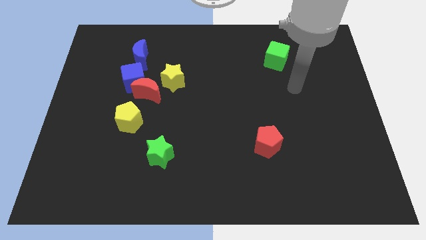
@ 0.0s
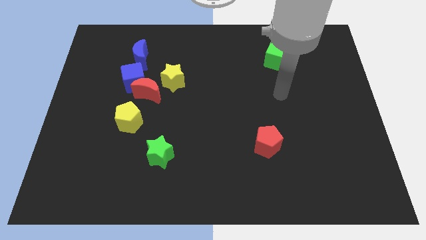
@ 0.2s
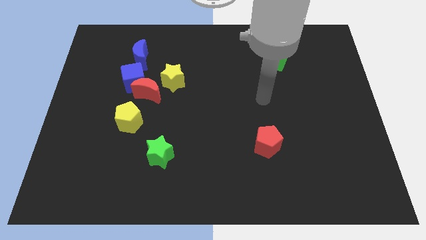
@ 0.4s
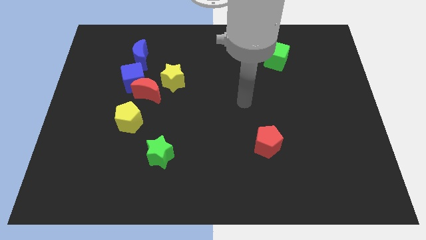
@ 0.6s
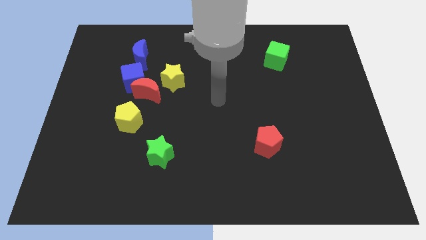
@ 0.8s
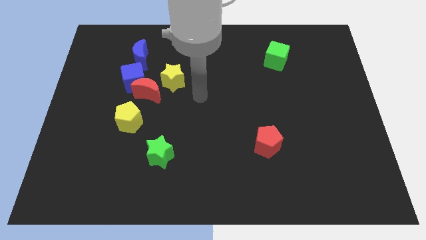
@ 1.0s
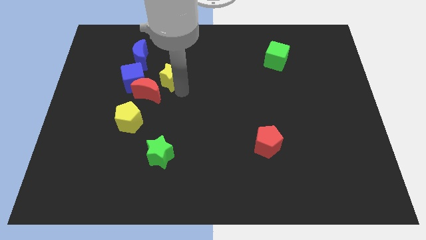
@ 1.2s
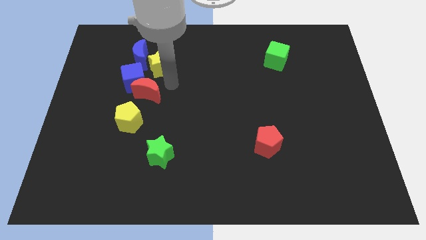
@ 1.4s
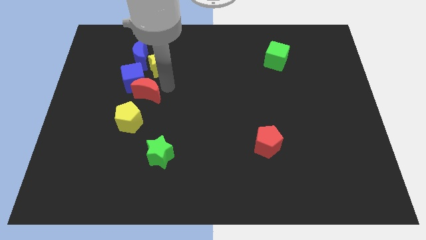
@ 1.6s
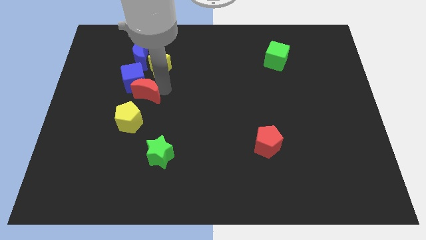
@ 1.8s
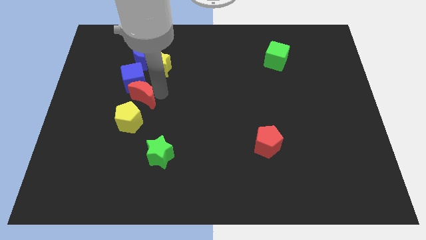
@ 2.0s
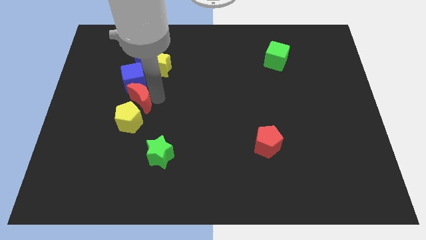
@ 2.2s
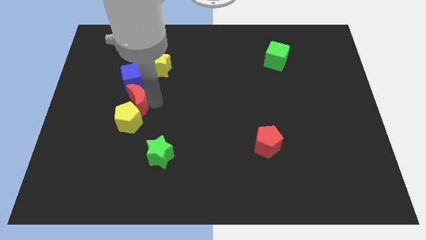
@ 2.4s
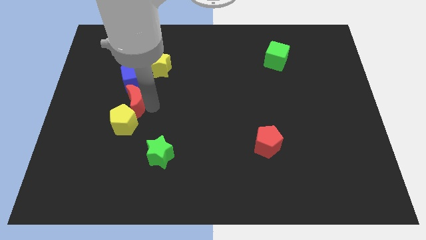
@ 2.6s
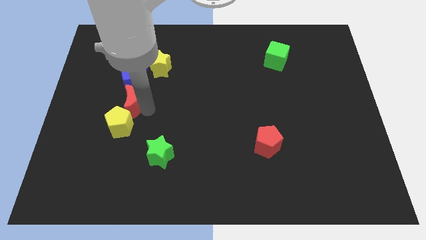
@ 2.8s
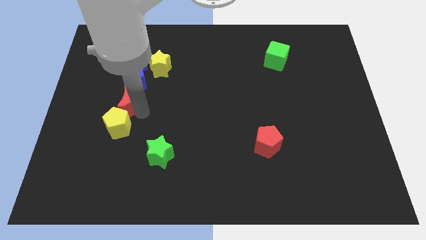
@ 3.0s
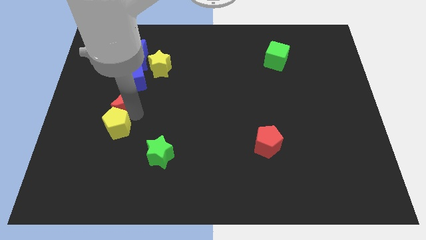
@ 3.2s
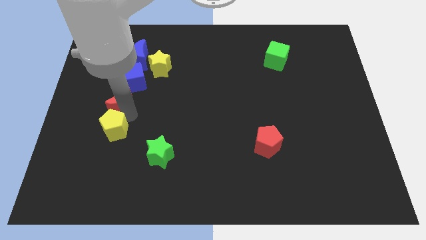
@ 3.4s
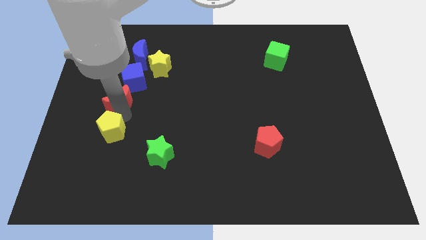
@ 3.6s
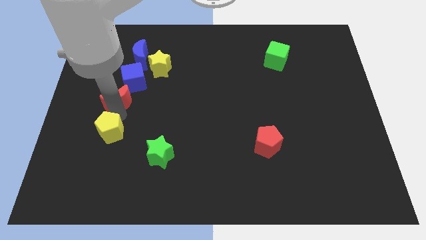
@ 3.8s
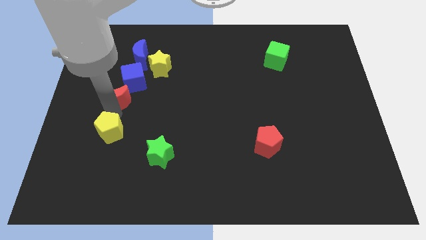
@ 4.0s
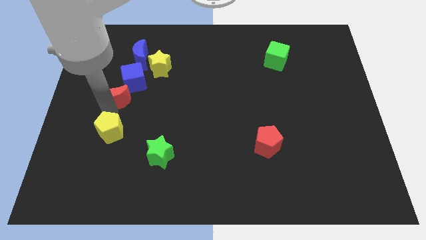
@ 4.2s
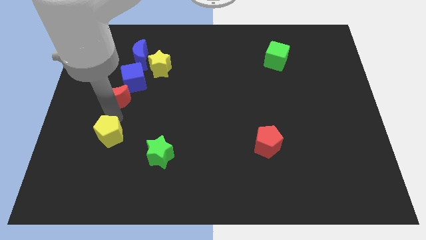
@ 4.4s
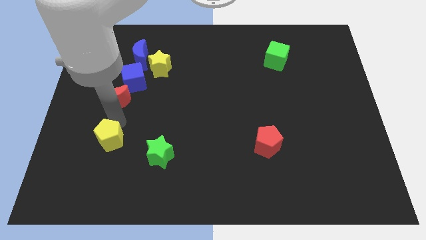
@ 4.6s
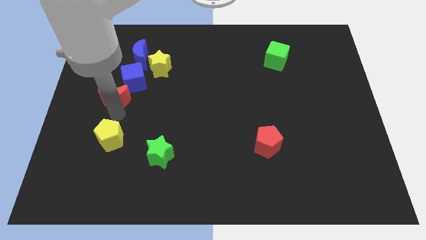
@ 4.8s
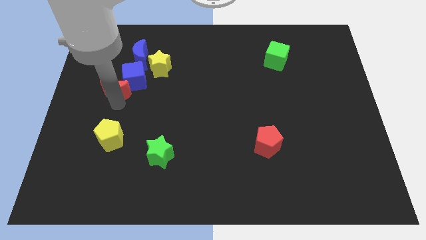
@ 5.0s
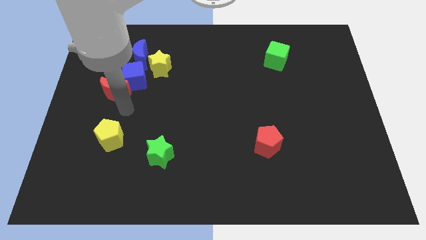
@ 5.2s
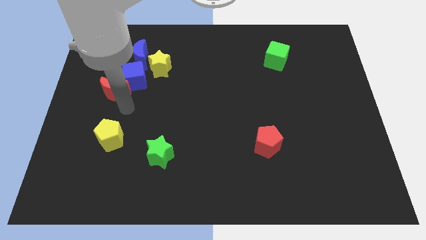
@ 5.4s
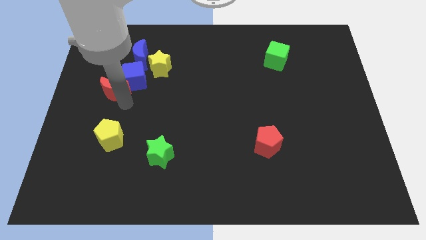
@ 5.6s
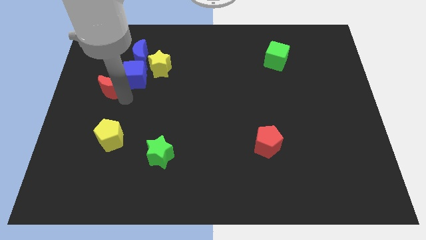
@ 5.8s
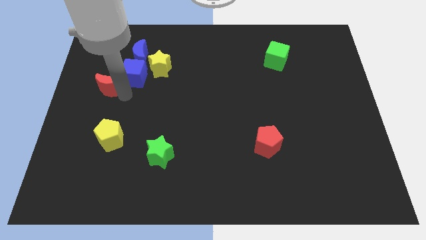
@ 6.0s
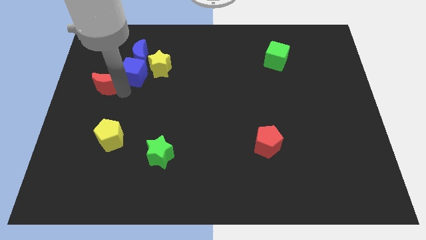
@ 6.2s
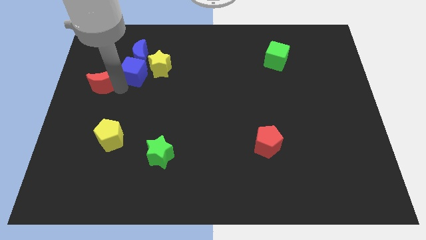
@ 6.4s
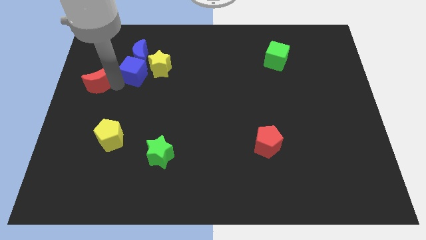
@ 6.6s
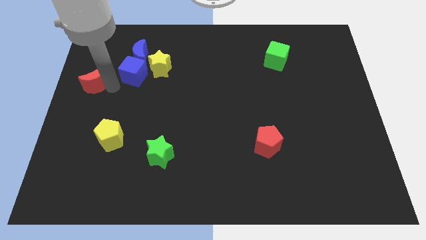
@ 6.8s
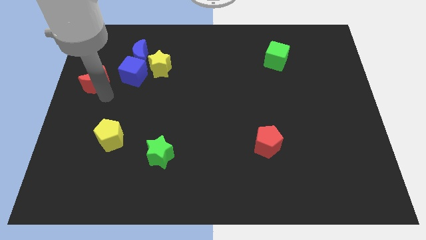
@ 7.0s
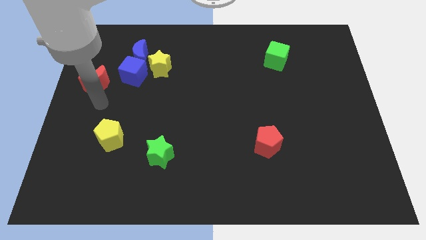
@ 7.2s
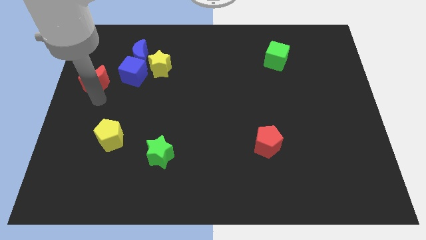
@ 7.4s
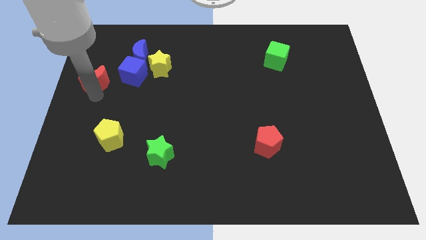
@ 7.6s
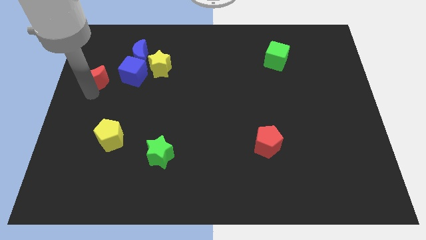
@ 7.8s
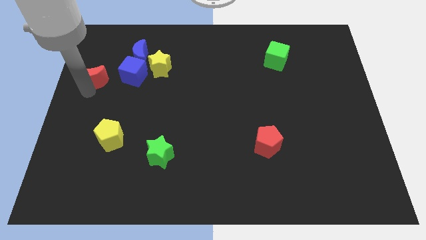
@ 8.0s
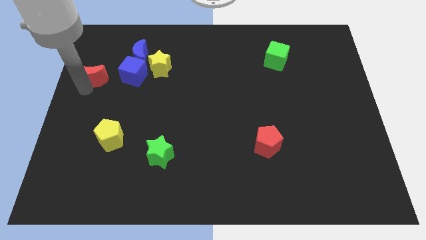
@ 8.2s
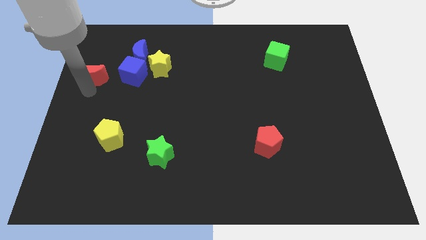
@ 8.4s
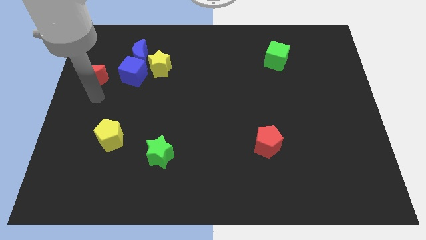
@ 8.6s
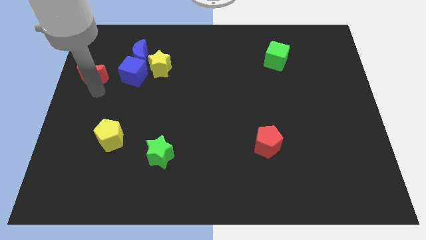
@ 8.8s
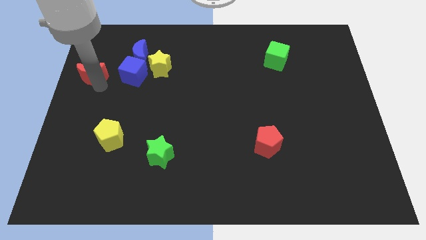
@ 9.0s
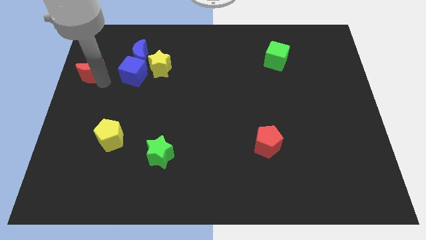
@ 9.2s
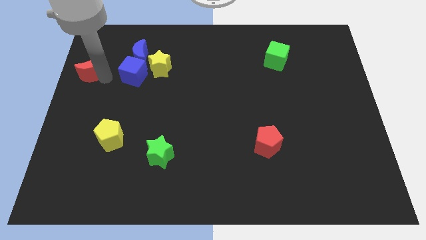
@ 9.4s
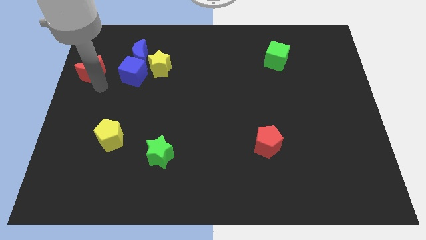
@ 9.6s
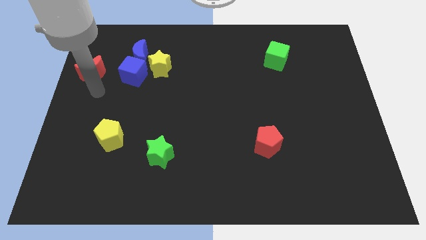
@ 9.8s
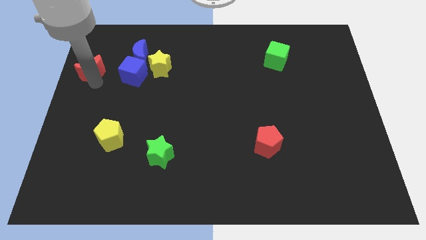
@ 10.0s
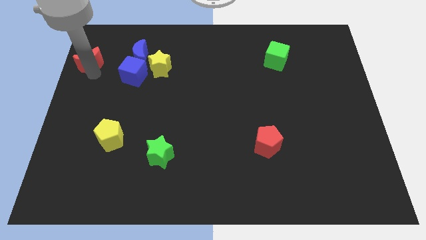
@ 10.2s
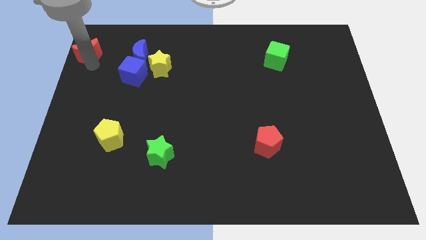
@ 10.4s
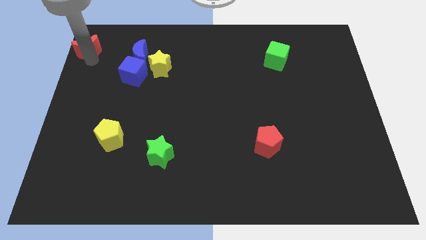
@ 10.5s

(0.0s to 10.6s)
put the red moon to the upper left corner
